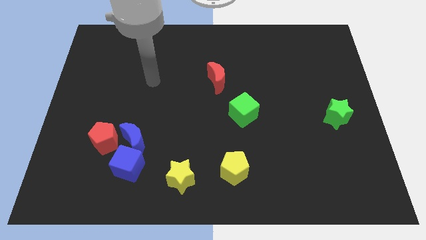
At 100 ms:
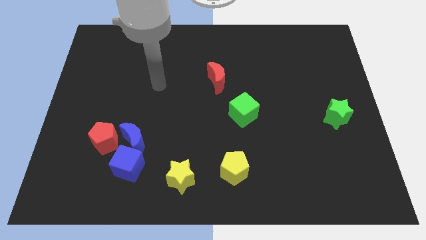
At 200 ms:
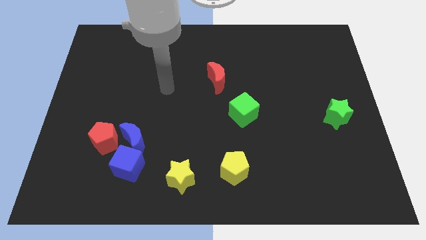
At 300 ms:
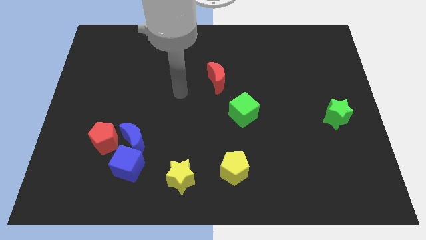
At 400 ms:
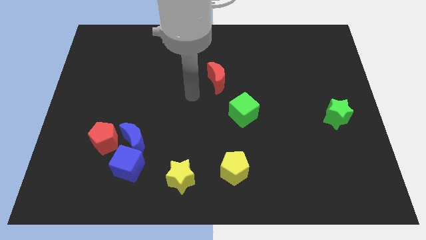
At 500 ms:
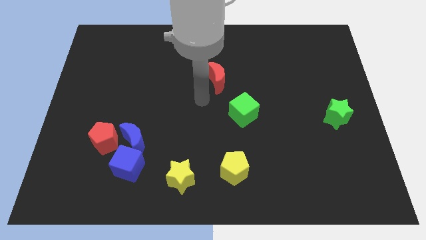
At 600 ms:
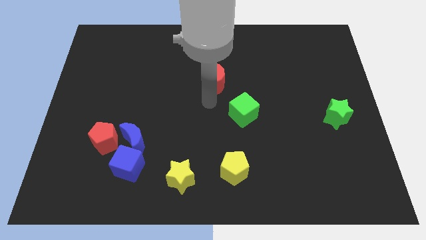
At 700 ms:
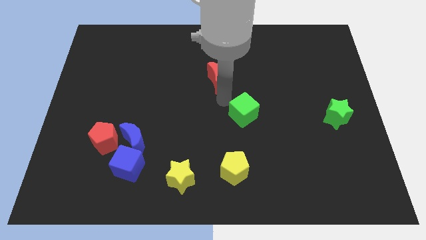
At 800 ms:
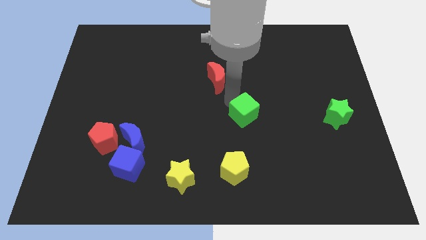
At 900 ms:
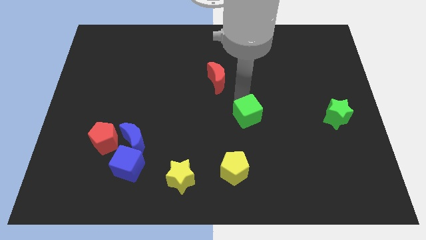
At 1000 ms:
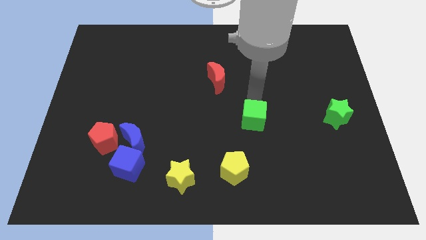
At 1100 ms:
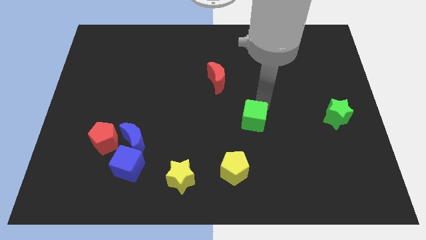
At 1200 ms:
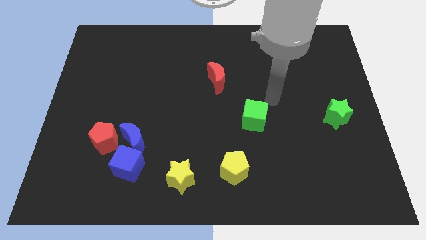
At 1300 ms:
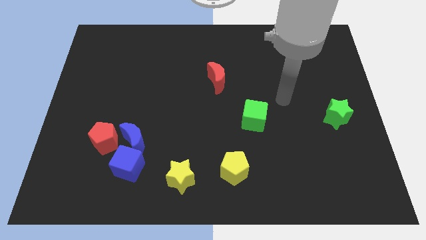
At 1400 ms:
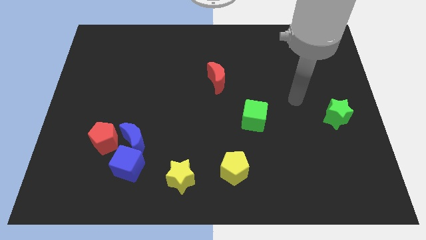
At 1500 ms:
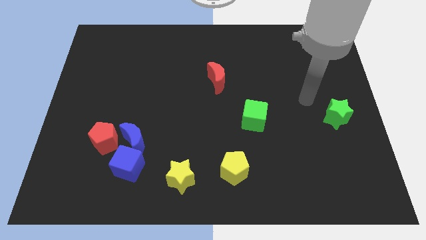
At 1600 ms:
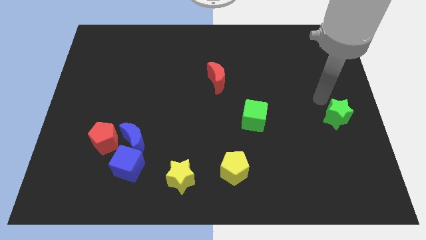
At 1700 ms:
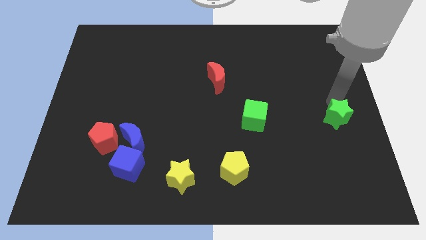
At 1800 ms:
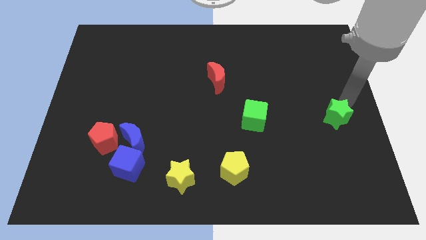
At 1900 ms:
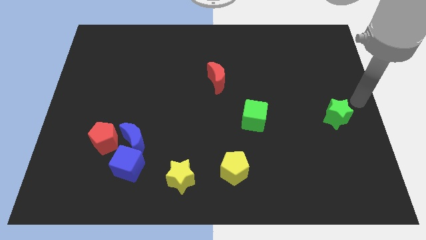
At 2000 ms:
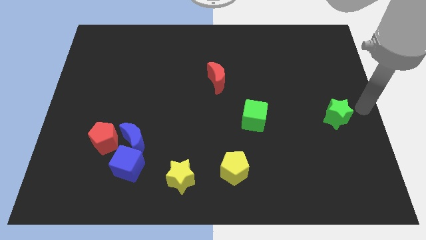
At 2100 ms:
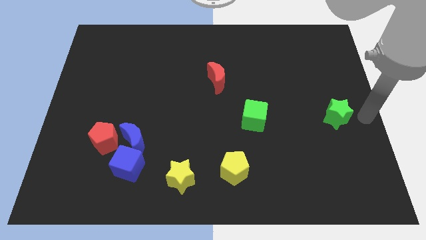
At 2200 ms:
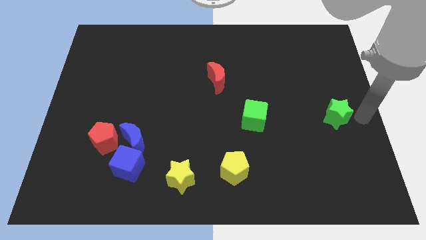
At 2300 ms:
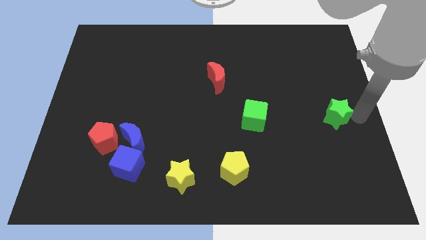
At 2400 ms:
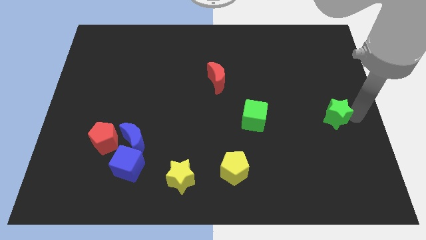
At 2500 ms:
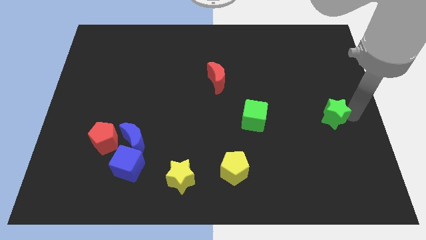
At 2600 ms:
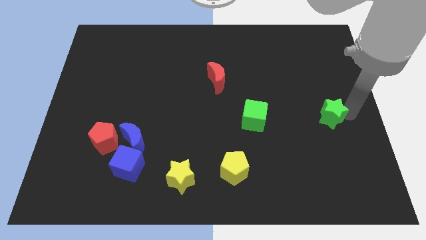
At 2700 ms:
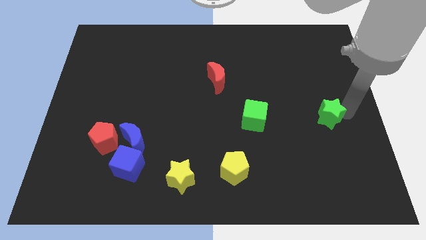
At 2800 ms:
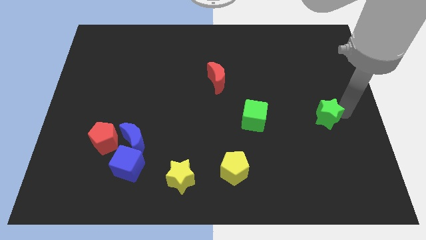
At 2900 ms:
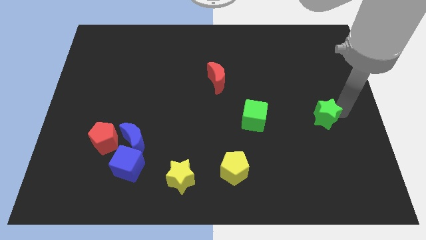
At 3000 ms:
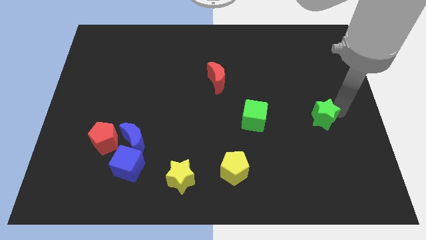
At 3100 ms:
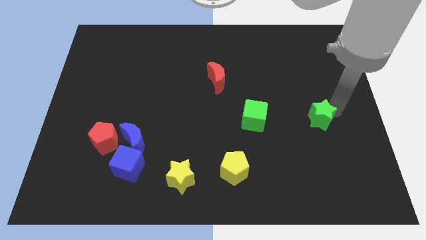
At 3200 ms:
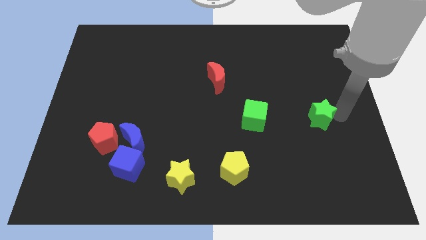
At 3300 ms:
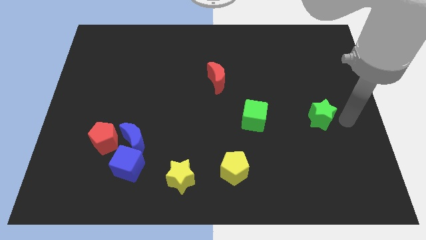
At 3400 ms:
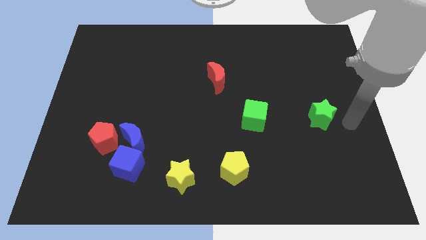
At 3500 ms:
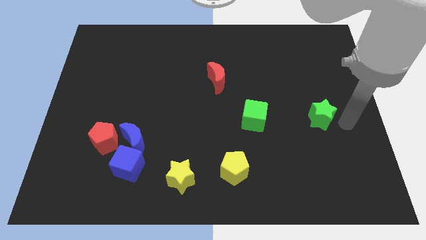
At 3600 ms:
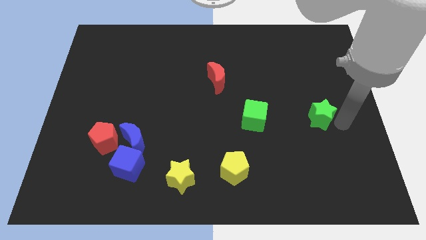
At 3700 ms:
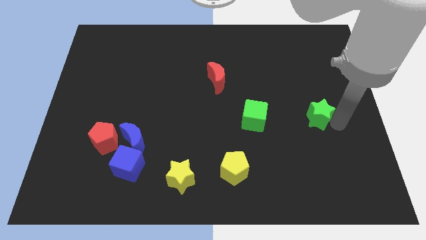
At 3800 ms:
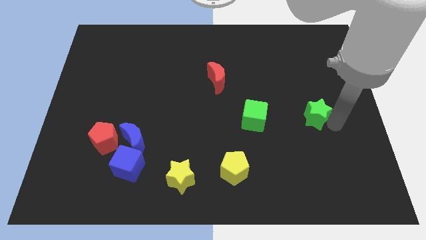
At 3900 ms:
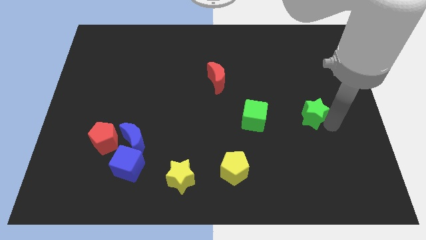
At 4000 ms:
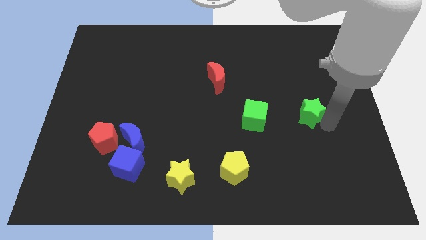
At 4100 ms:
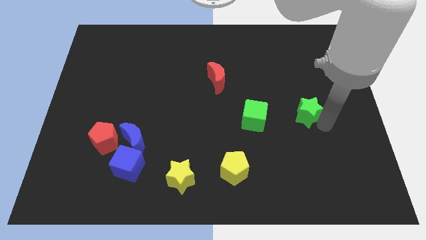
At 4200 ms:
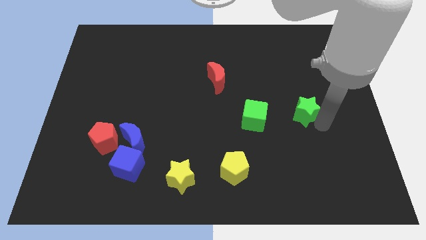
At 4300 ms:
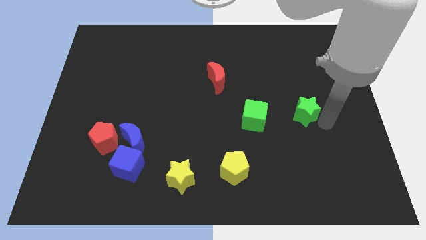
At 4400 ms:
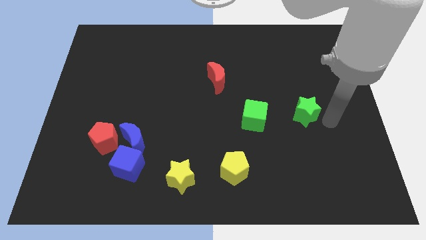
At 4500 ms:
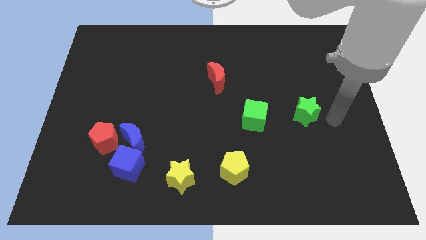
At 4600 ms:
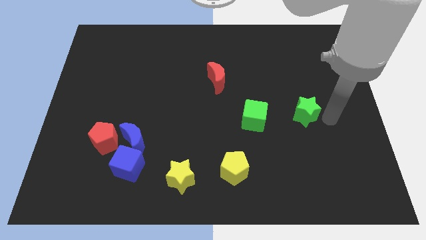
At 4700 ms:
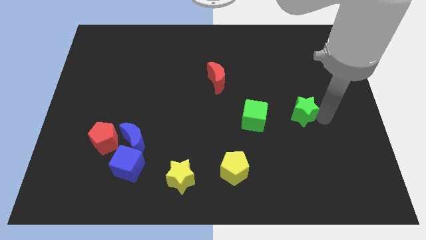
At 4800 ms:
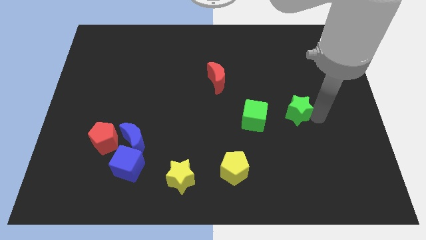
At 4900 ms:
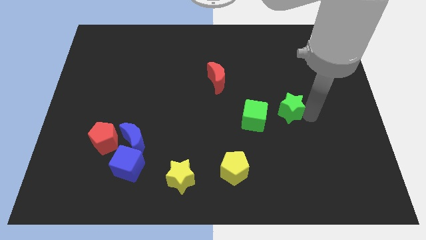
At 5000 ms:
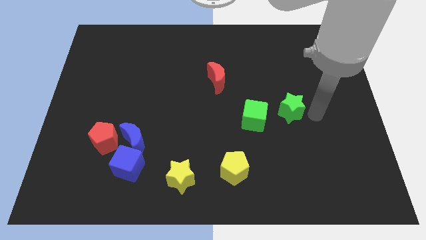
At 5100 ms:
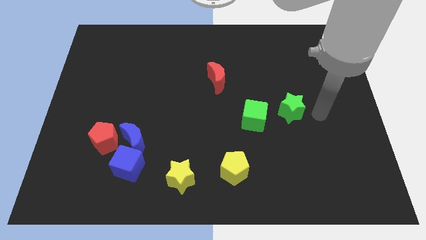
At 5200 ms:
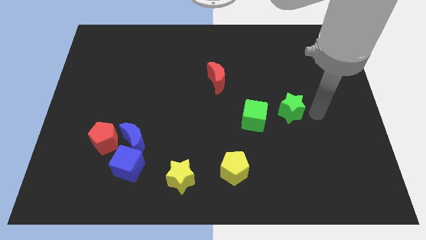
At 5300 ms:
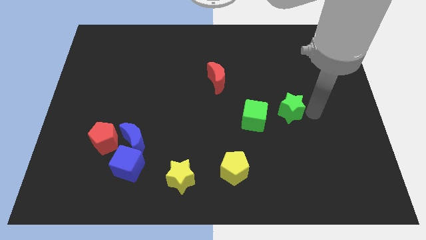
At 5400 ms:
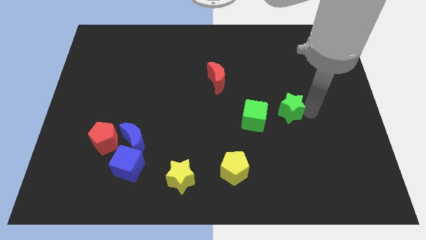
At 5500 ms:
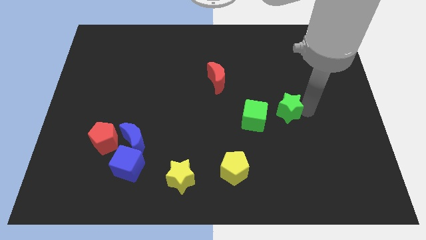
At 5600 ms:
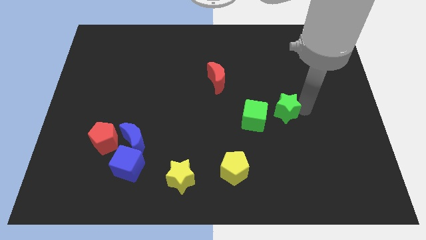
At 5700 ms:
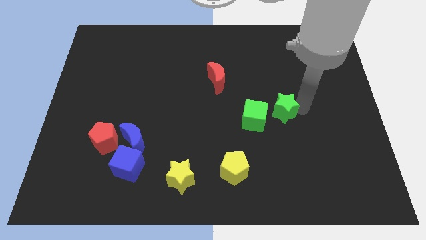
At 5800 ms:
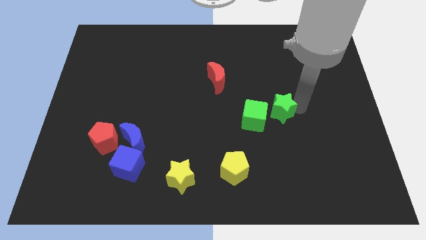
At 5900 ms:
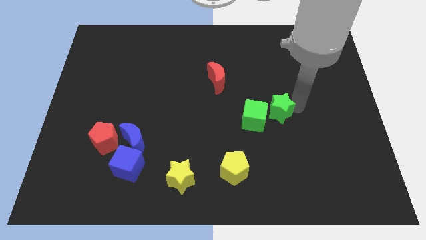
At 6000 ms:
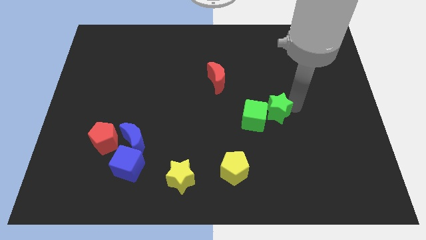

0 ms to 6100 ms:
slide the green star towards the green cube

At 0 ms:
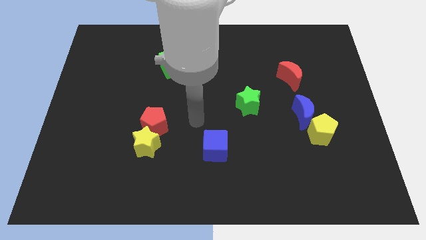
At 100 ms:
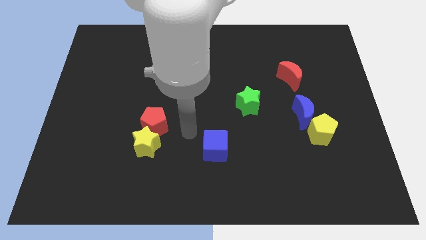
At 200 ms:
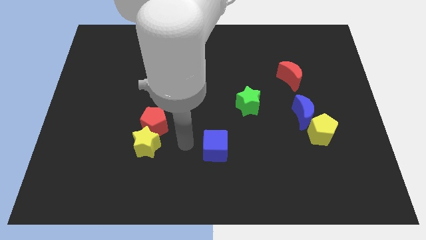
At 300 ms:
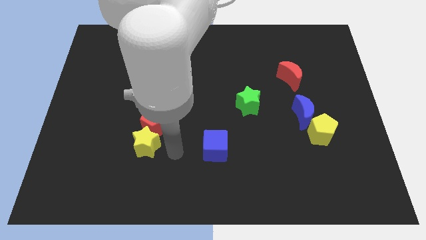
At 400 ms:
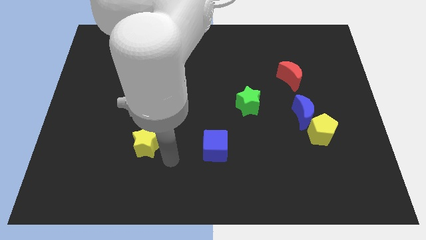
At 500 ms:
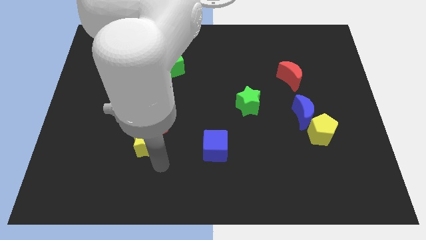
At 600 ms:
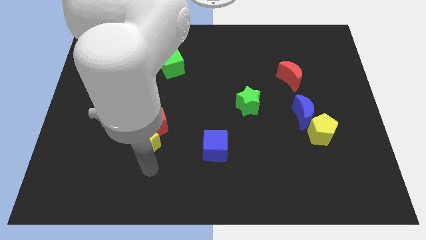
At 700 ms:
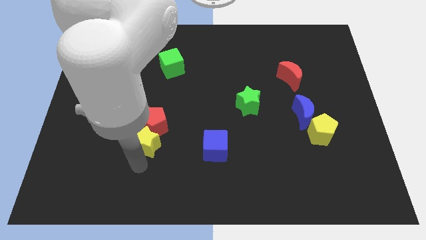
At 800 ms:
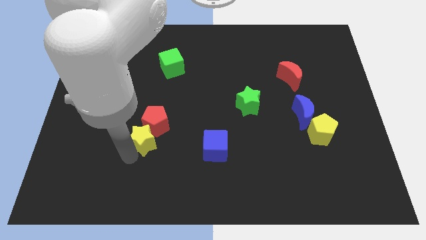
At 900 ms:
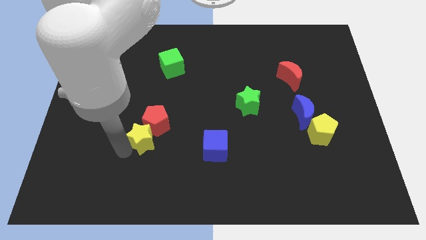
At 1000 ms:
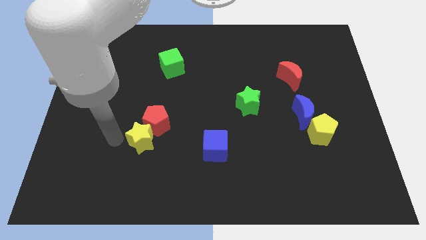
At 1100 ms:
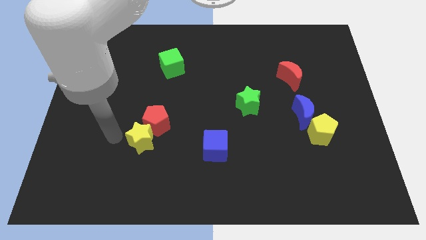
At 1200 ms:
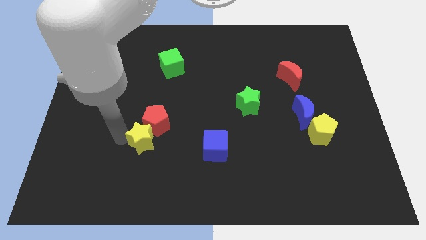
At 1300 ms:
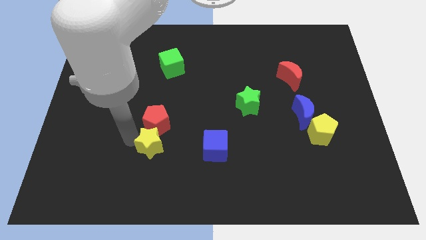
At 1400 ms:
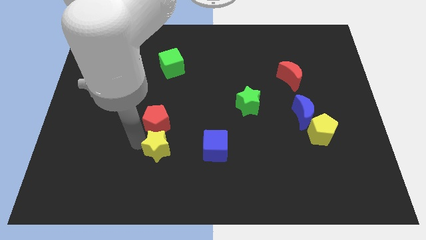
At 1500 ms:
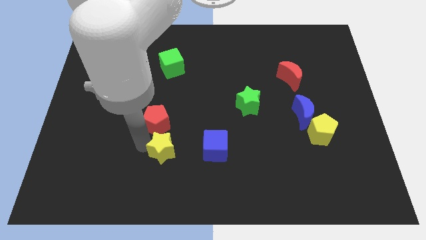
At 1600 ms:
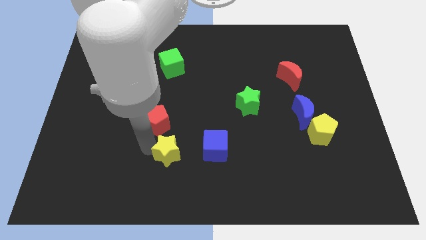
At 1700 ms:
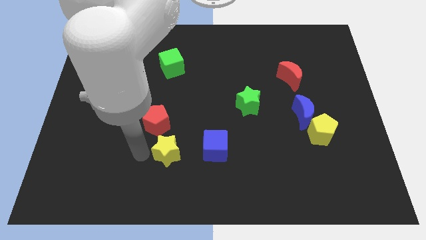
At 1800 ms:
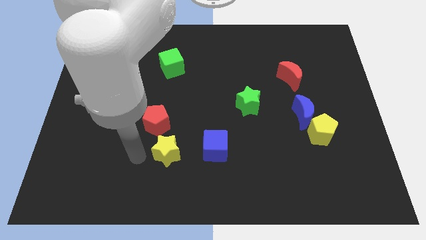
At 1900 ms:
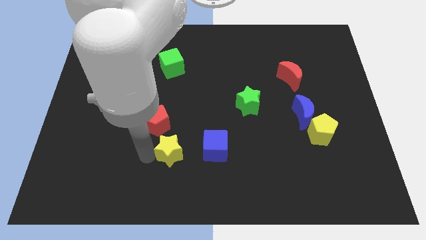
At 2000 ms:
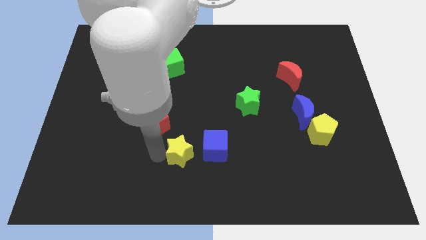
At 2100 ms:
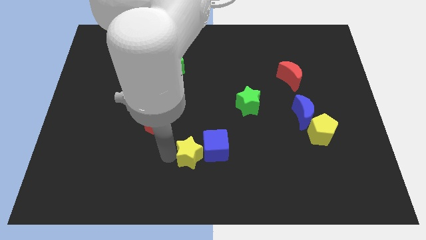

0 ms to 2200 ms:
put the yellow star close to the blue cube
